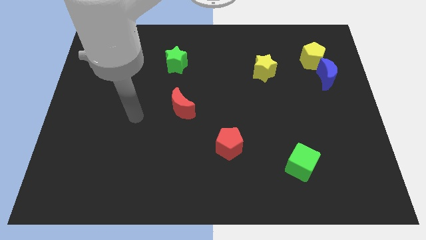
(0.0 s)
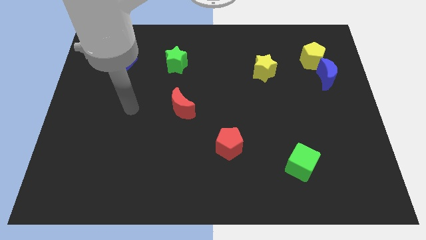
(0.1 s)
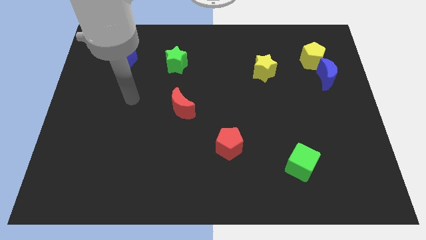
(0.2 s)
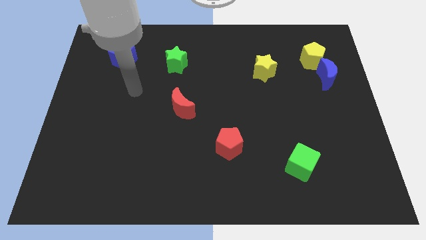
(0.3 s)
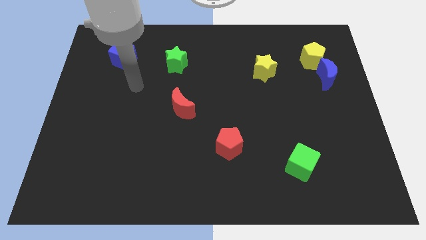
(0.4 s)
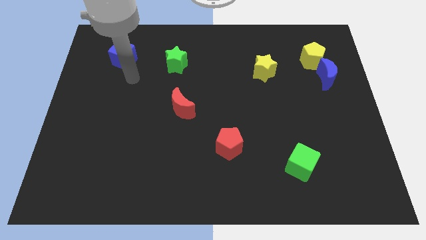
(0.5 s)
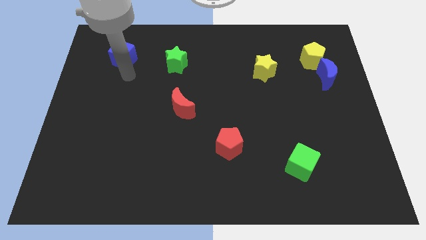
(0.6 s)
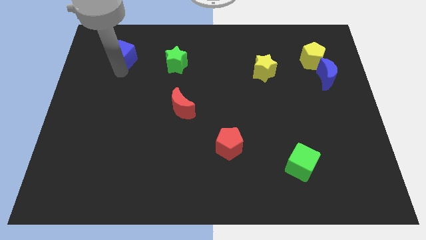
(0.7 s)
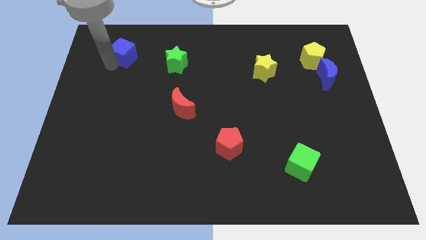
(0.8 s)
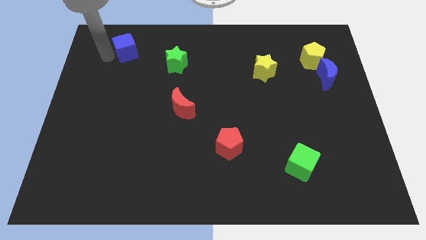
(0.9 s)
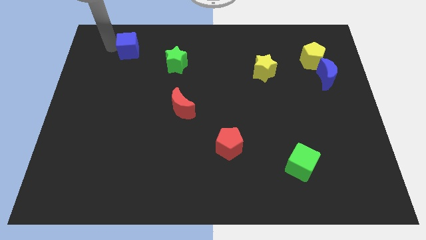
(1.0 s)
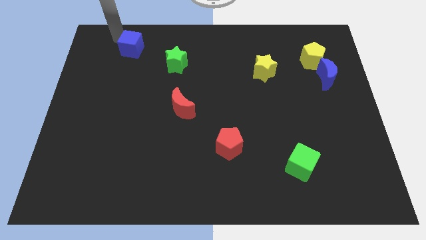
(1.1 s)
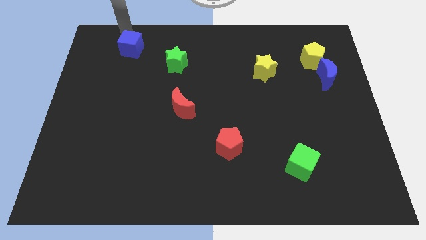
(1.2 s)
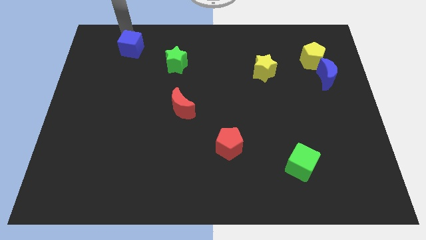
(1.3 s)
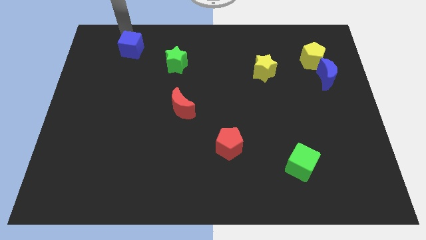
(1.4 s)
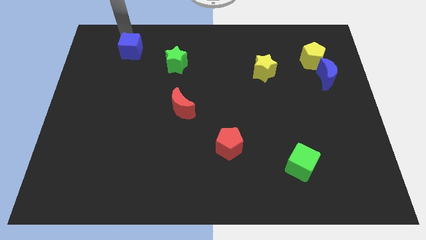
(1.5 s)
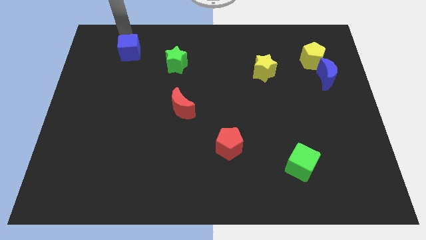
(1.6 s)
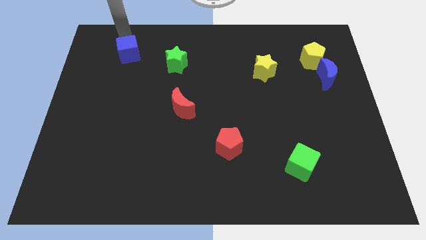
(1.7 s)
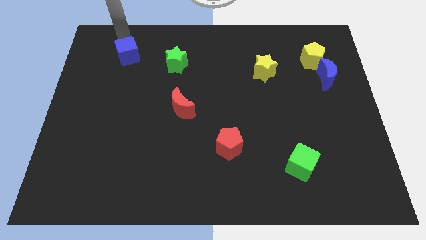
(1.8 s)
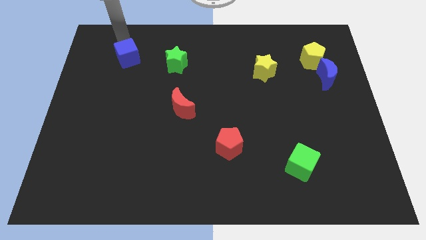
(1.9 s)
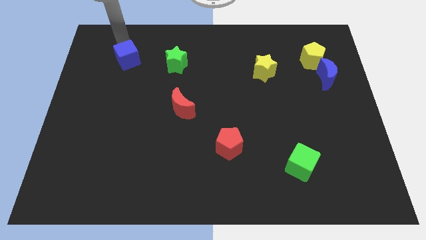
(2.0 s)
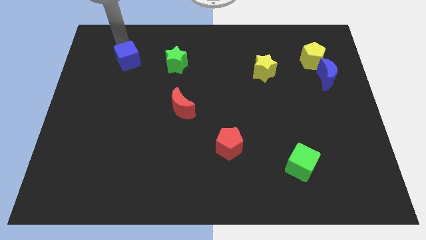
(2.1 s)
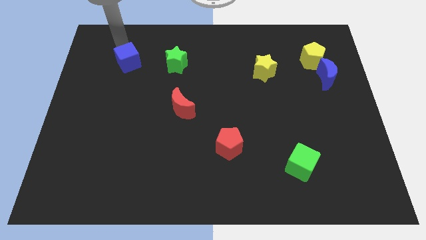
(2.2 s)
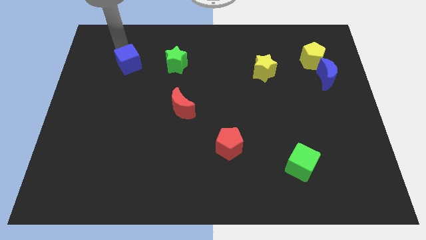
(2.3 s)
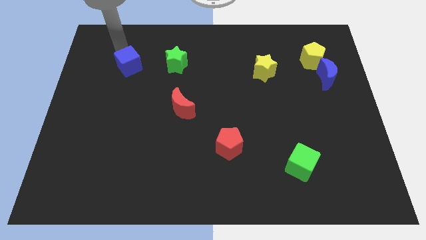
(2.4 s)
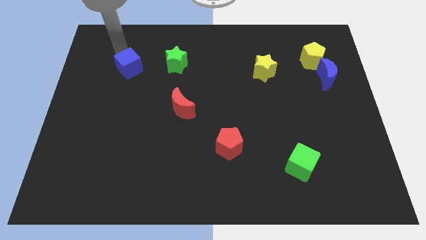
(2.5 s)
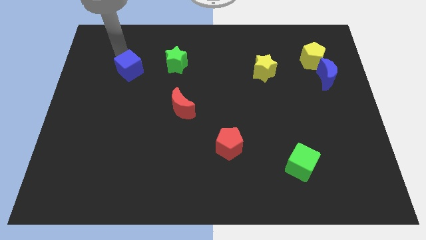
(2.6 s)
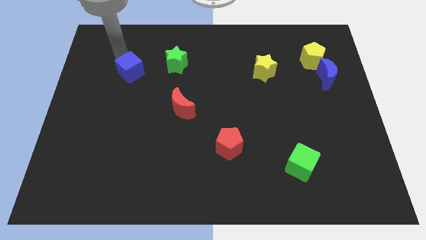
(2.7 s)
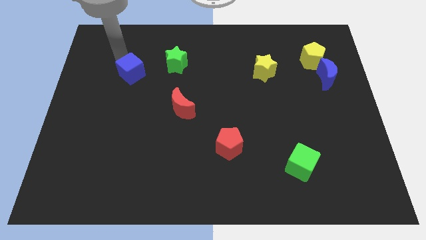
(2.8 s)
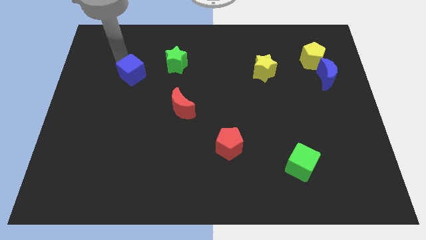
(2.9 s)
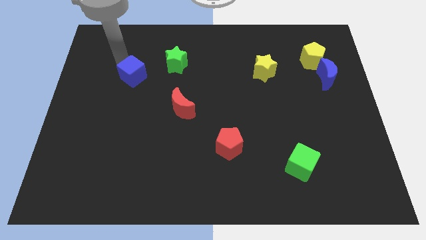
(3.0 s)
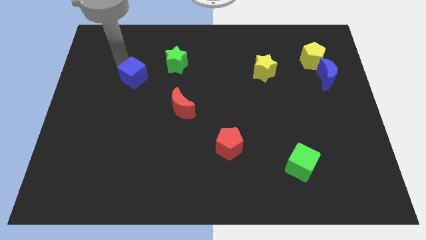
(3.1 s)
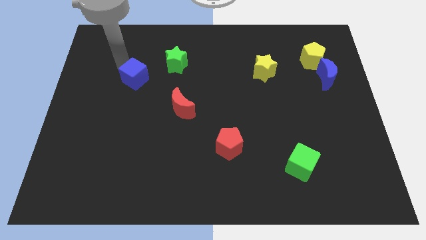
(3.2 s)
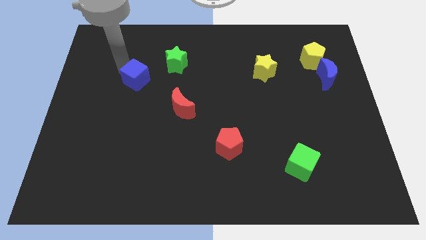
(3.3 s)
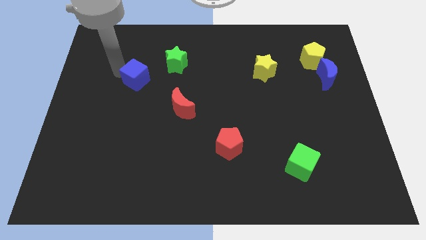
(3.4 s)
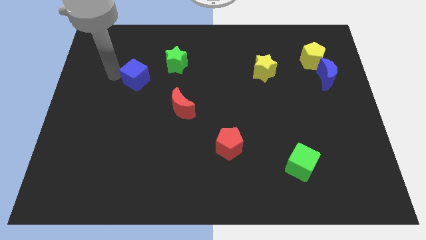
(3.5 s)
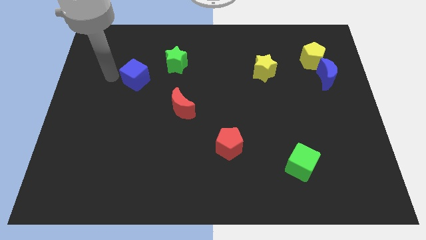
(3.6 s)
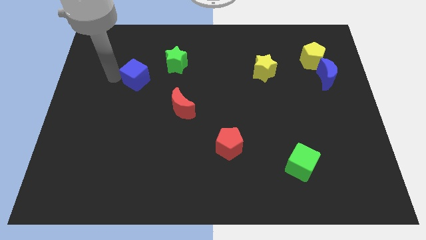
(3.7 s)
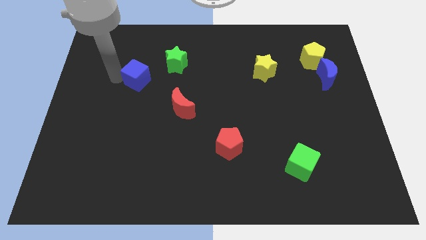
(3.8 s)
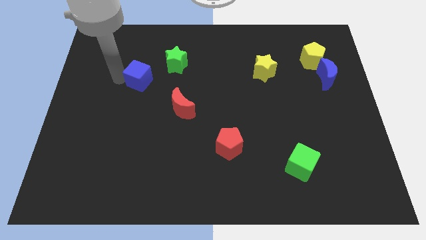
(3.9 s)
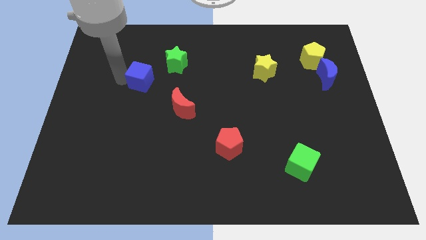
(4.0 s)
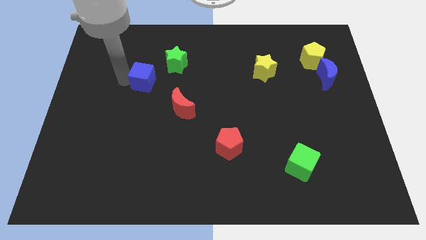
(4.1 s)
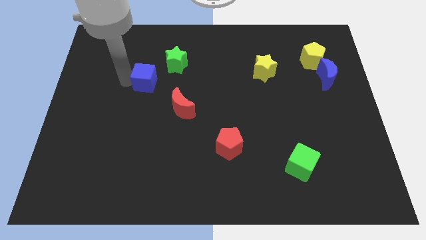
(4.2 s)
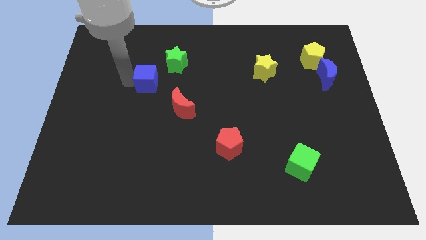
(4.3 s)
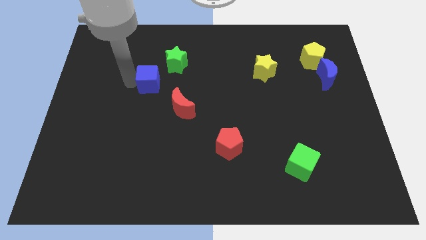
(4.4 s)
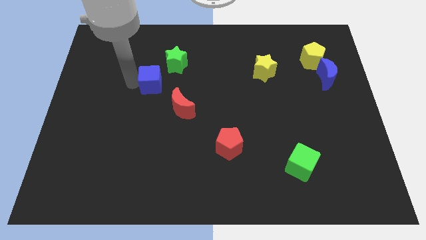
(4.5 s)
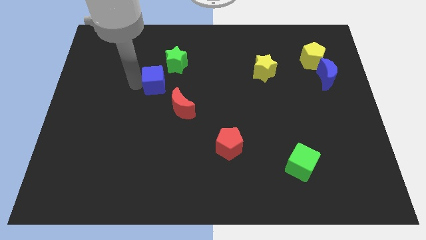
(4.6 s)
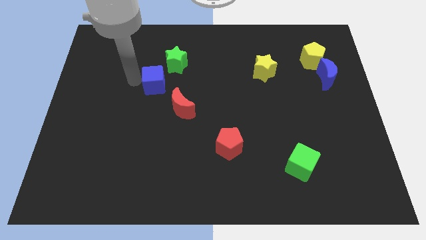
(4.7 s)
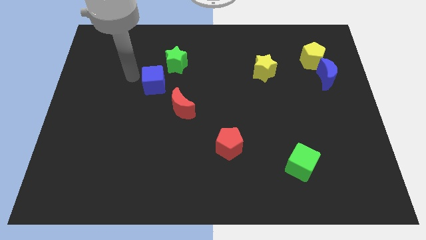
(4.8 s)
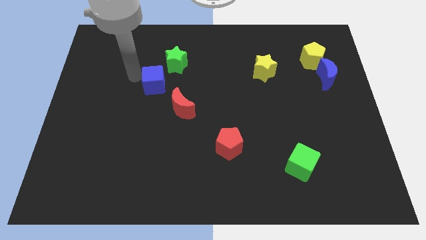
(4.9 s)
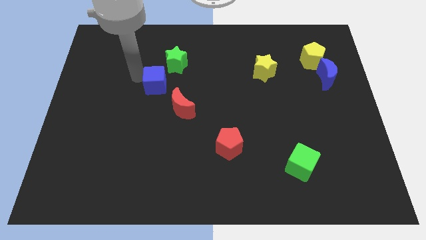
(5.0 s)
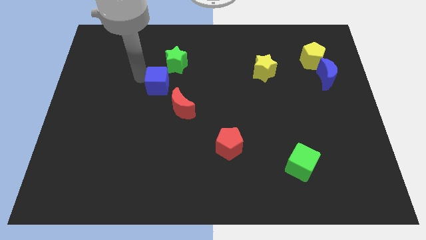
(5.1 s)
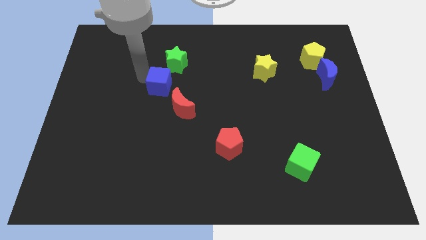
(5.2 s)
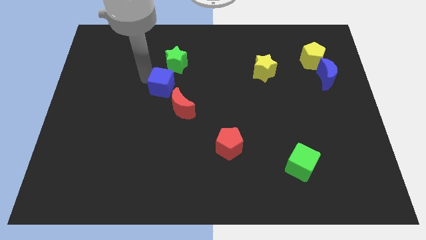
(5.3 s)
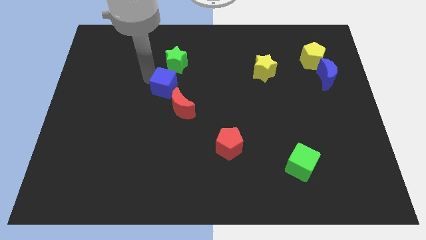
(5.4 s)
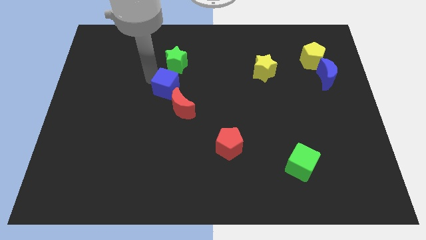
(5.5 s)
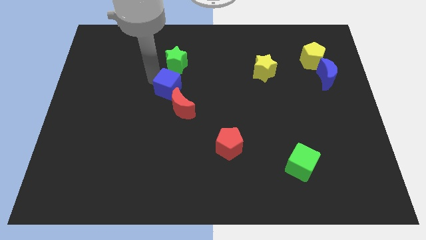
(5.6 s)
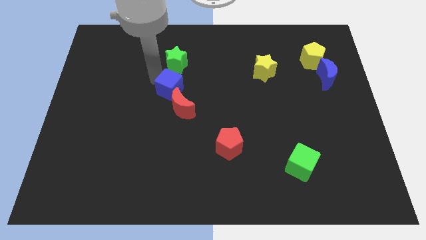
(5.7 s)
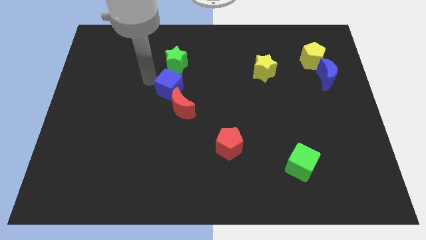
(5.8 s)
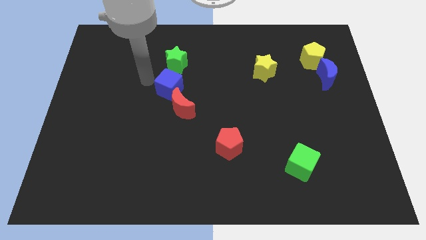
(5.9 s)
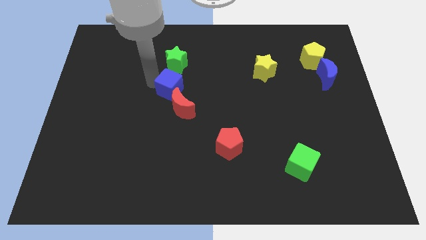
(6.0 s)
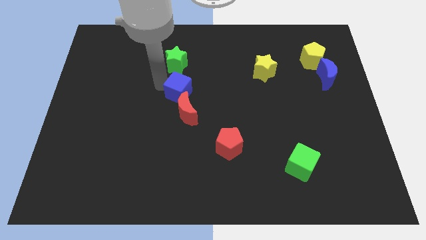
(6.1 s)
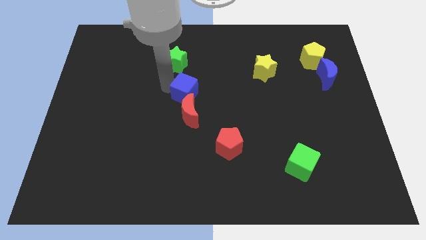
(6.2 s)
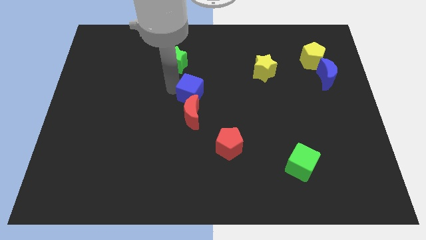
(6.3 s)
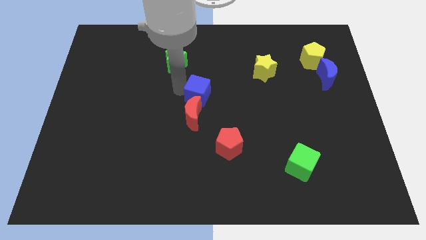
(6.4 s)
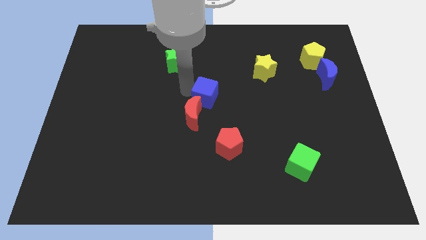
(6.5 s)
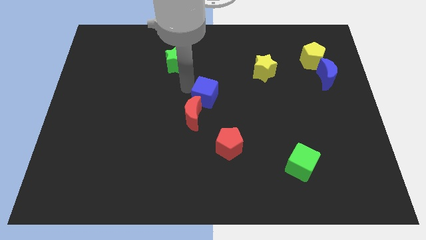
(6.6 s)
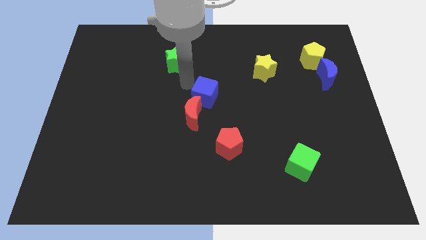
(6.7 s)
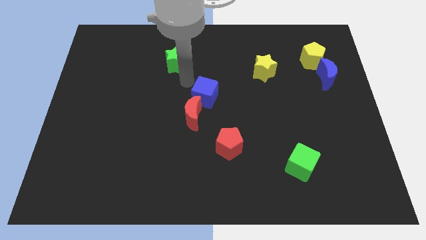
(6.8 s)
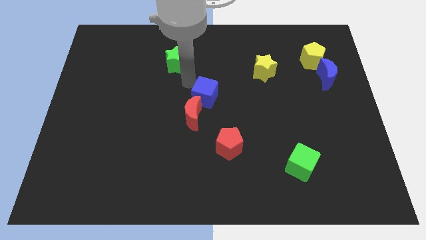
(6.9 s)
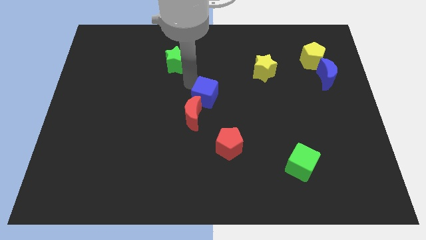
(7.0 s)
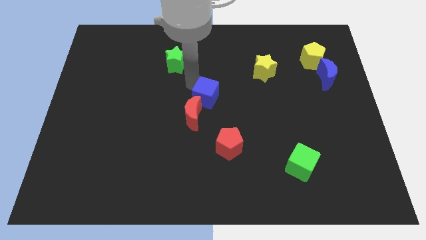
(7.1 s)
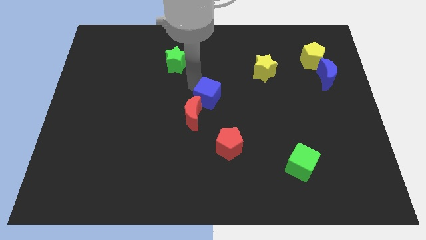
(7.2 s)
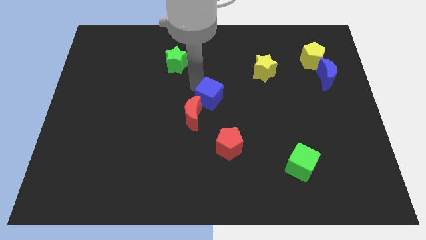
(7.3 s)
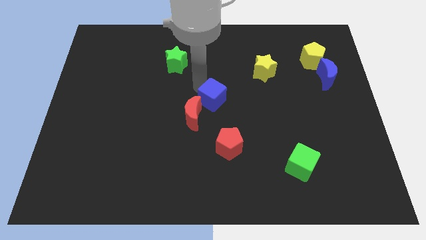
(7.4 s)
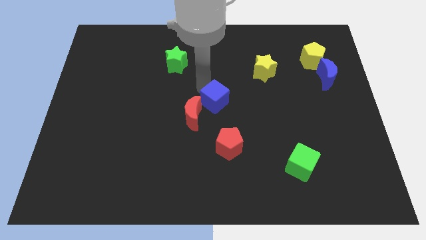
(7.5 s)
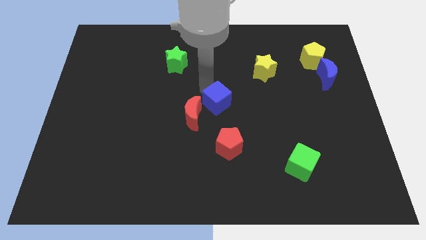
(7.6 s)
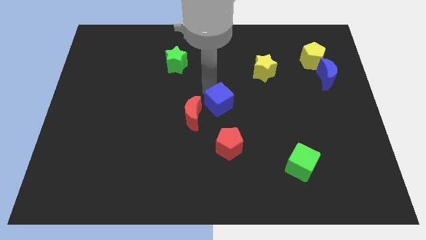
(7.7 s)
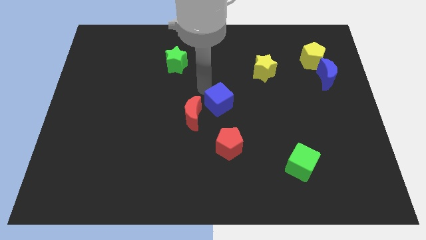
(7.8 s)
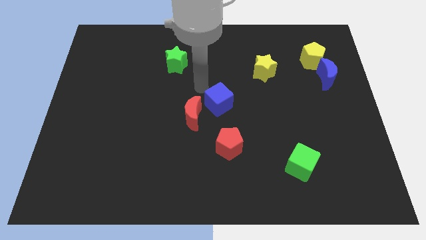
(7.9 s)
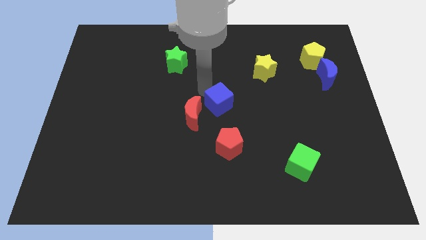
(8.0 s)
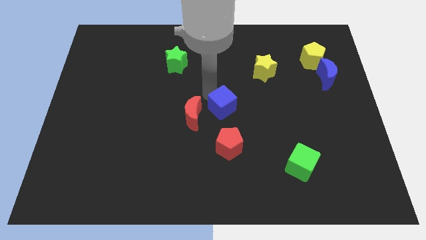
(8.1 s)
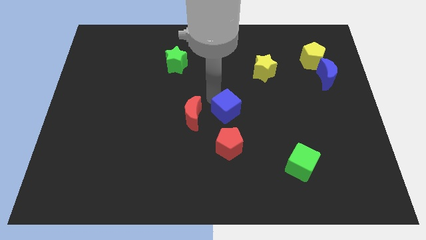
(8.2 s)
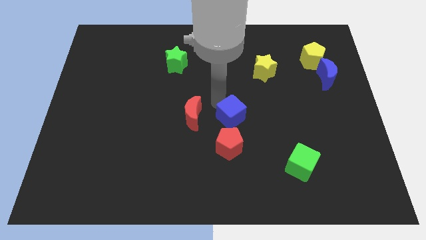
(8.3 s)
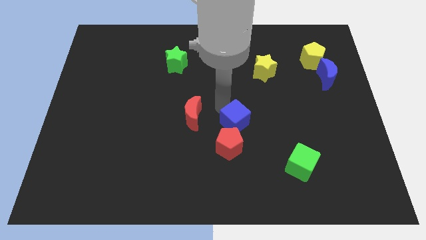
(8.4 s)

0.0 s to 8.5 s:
move the blue cube to the top right side of the red pentagon
